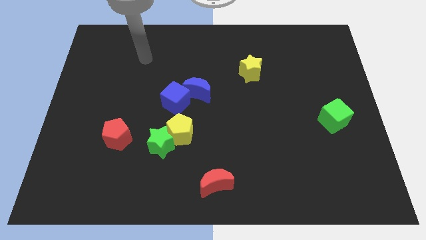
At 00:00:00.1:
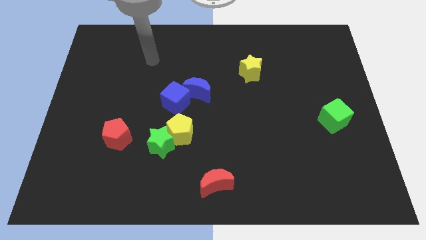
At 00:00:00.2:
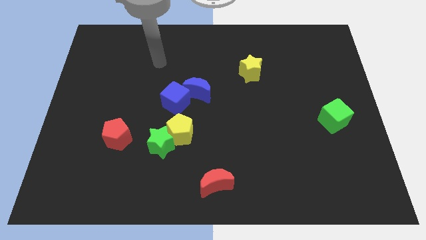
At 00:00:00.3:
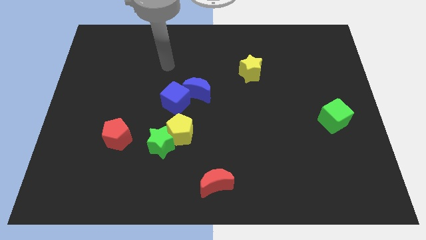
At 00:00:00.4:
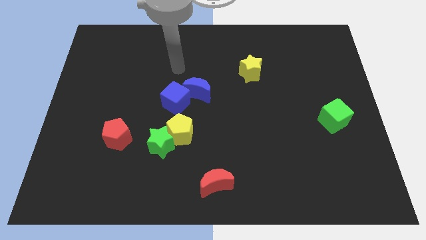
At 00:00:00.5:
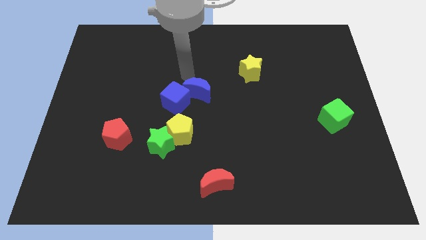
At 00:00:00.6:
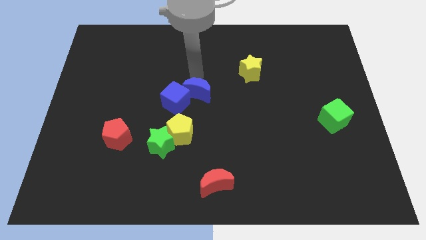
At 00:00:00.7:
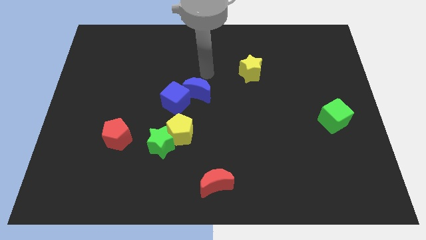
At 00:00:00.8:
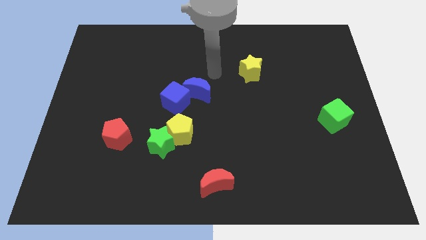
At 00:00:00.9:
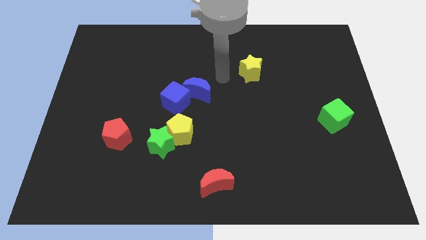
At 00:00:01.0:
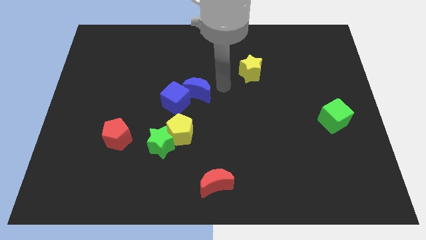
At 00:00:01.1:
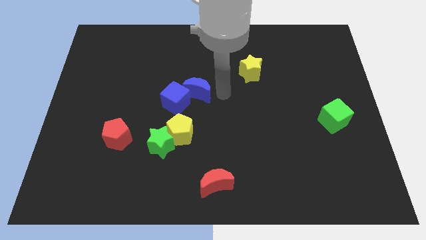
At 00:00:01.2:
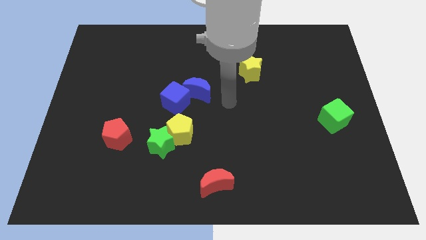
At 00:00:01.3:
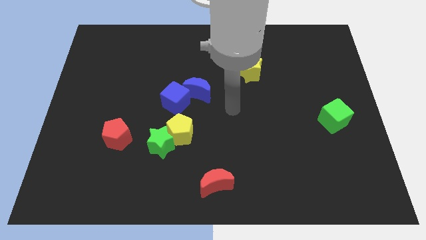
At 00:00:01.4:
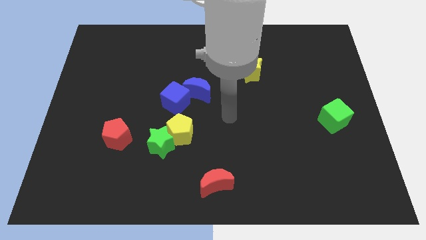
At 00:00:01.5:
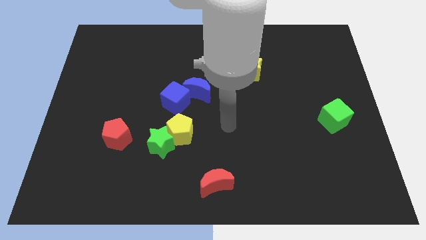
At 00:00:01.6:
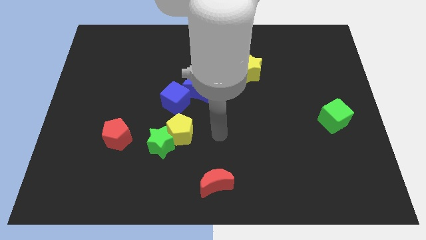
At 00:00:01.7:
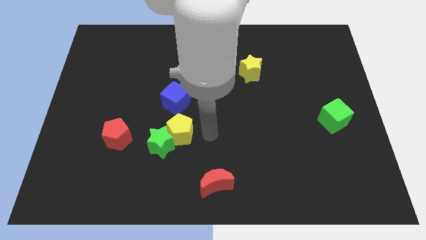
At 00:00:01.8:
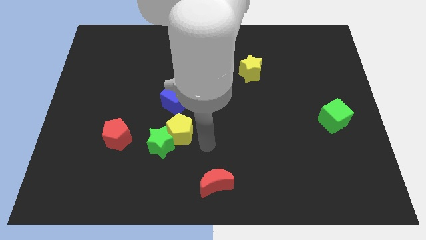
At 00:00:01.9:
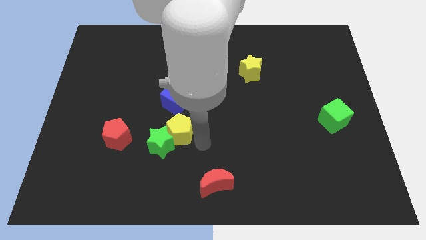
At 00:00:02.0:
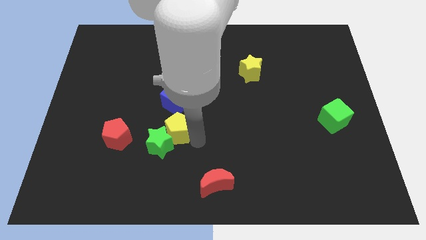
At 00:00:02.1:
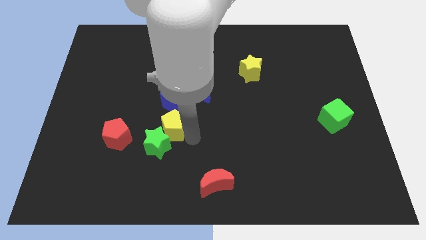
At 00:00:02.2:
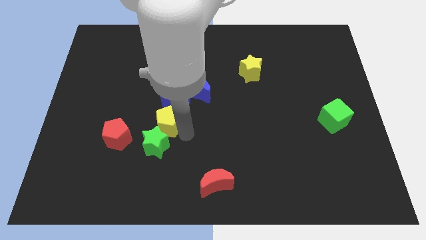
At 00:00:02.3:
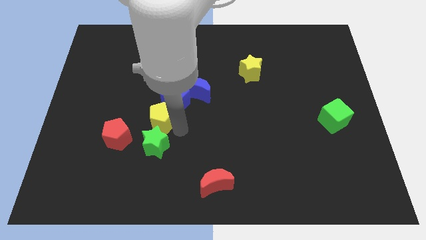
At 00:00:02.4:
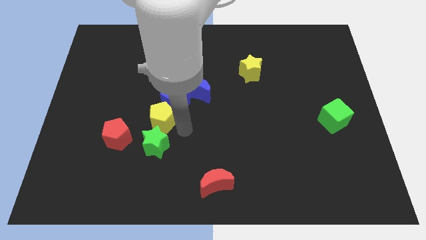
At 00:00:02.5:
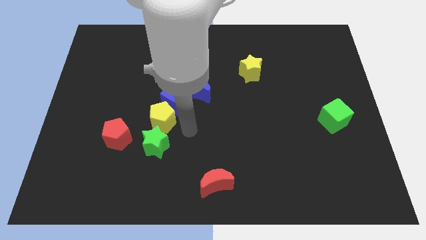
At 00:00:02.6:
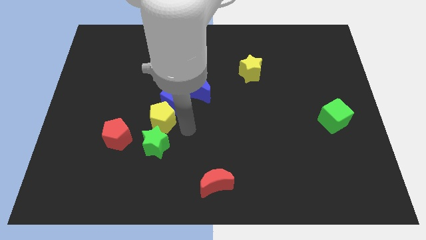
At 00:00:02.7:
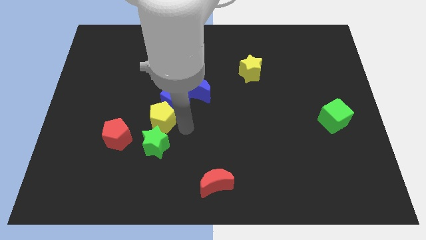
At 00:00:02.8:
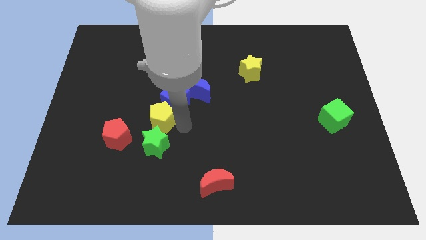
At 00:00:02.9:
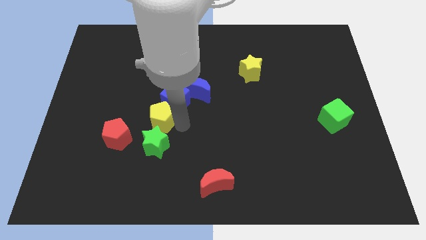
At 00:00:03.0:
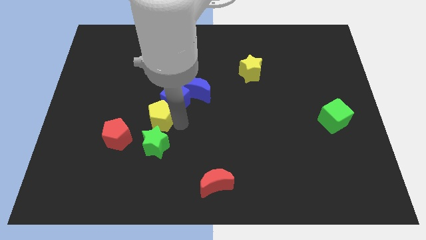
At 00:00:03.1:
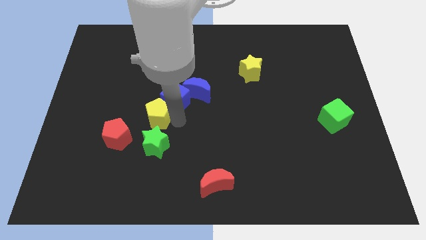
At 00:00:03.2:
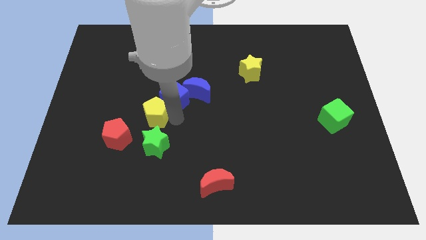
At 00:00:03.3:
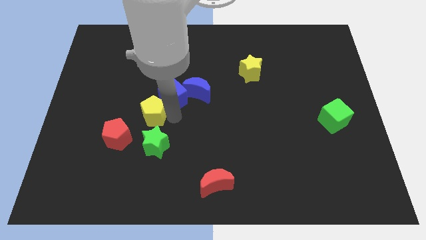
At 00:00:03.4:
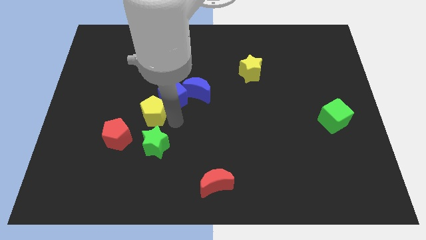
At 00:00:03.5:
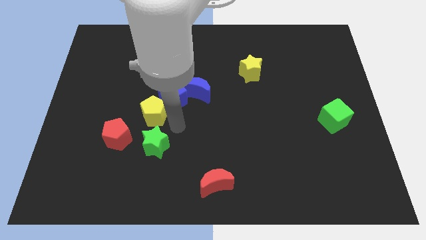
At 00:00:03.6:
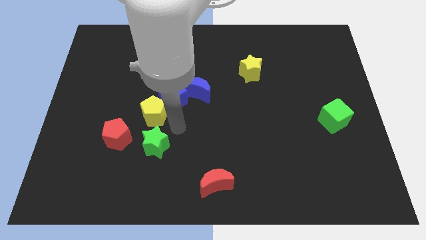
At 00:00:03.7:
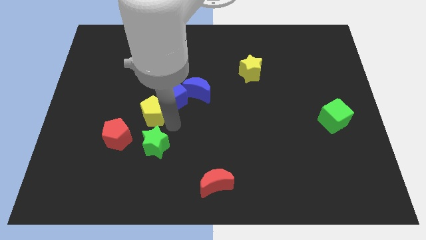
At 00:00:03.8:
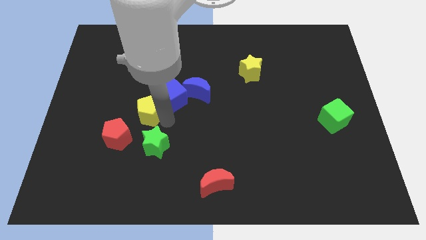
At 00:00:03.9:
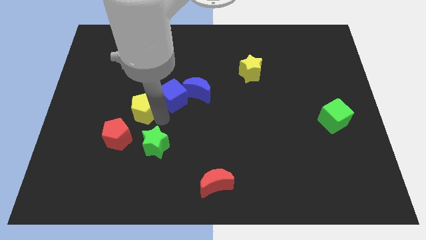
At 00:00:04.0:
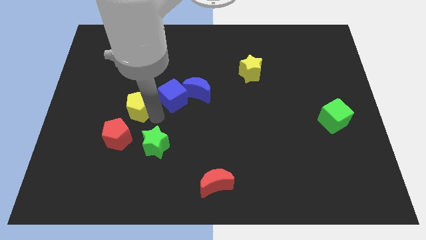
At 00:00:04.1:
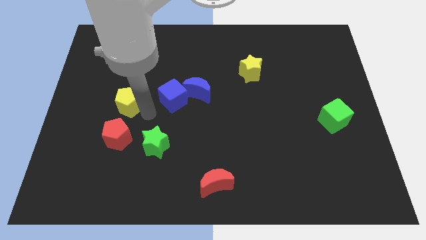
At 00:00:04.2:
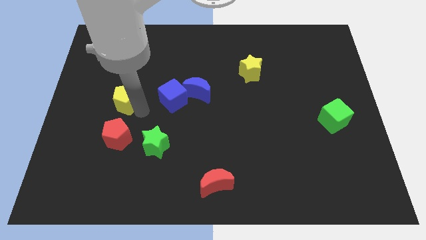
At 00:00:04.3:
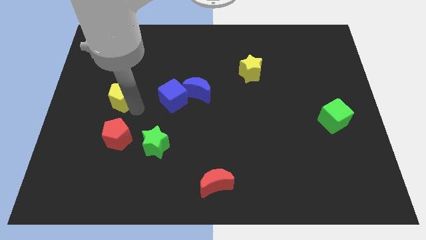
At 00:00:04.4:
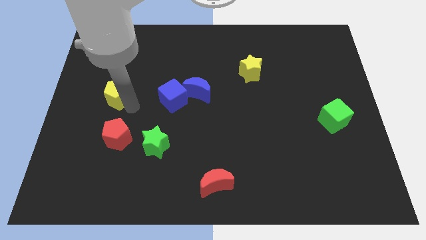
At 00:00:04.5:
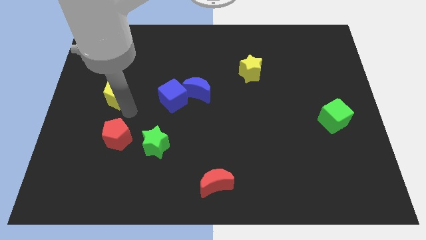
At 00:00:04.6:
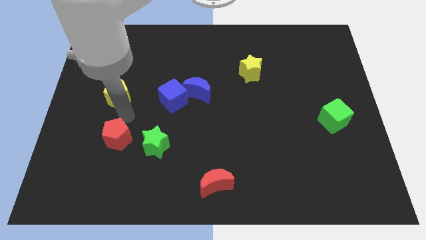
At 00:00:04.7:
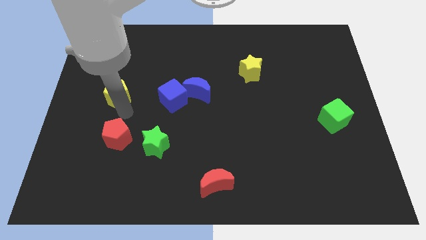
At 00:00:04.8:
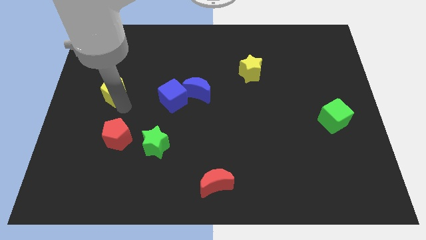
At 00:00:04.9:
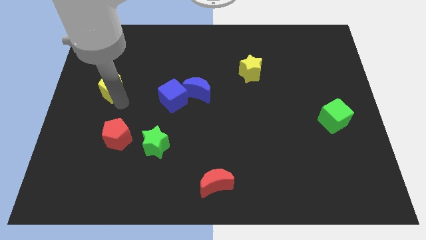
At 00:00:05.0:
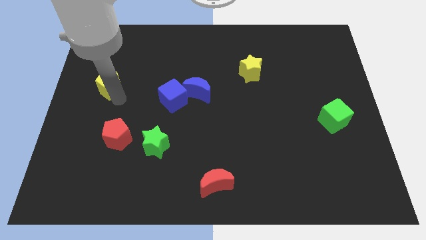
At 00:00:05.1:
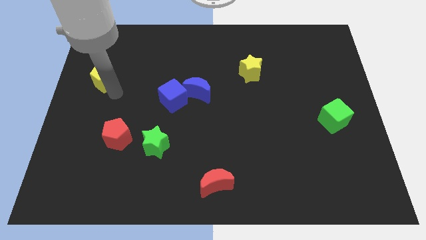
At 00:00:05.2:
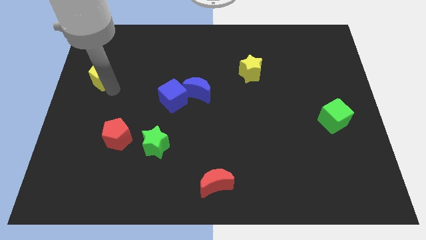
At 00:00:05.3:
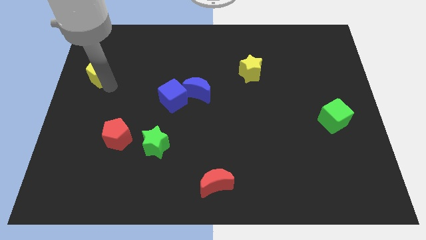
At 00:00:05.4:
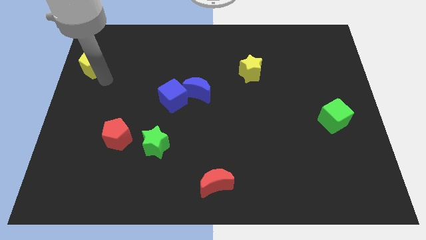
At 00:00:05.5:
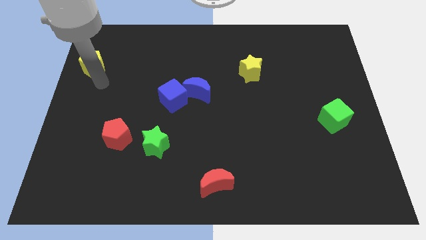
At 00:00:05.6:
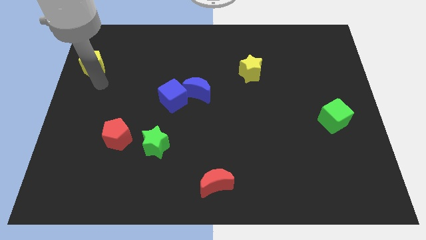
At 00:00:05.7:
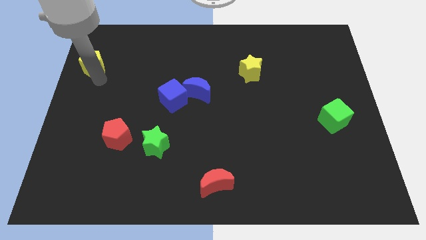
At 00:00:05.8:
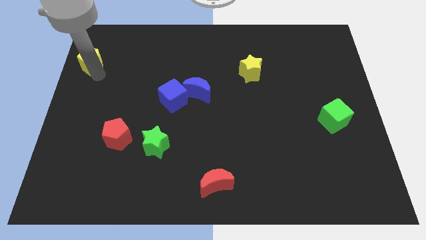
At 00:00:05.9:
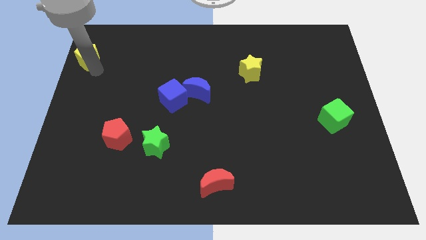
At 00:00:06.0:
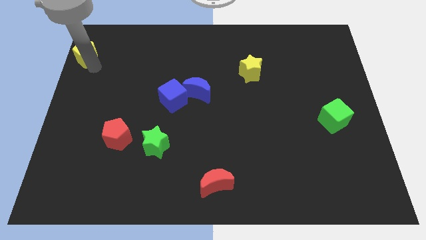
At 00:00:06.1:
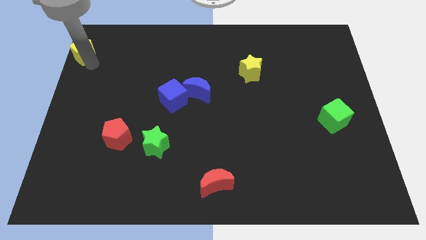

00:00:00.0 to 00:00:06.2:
slide the yellow pentagon to the top left corner

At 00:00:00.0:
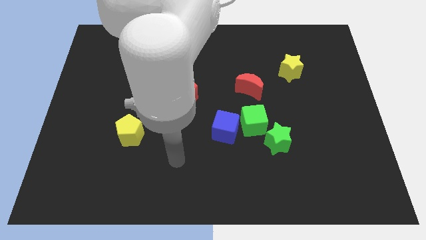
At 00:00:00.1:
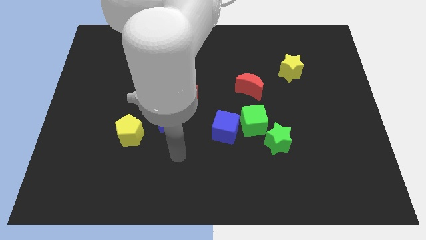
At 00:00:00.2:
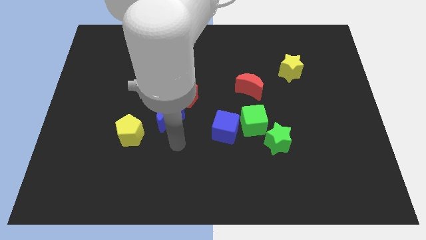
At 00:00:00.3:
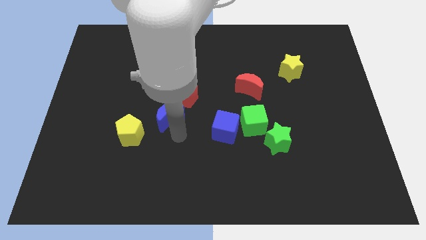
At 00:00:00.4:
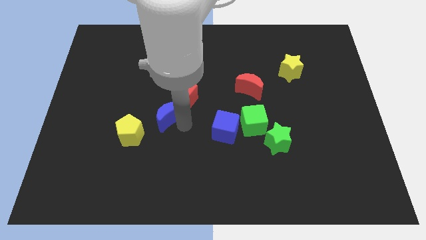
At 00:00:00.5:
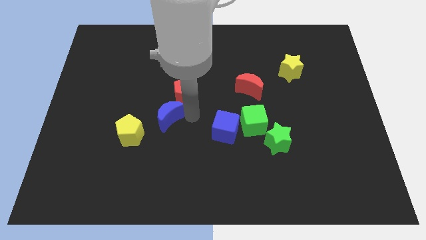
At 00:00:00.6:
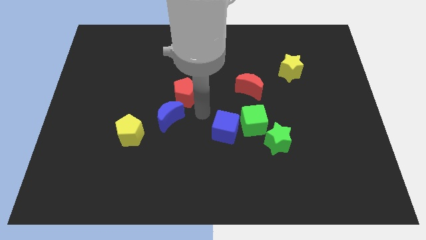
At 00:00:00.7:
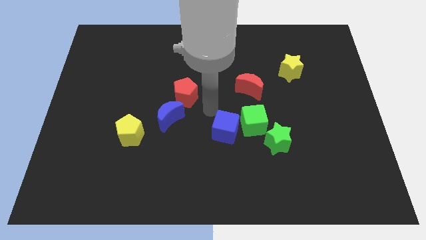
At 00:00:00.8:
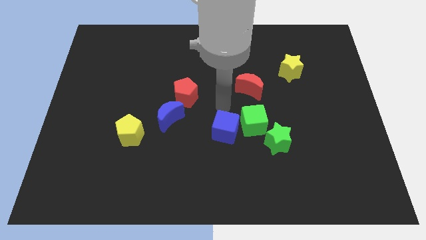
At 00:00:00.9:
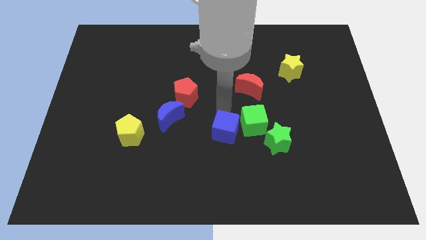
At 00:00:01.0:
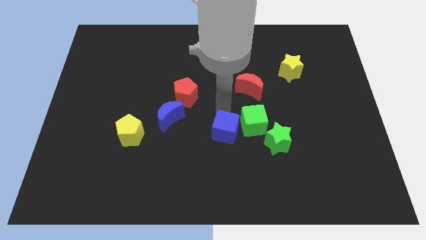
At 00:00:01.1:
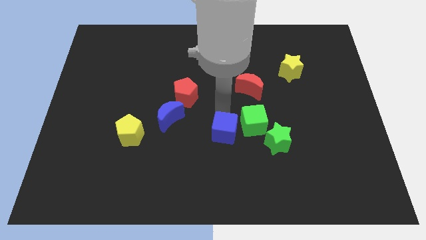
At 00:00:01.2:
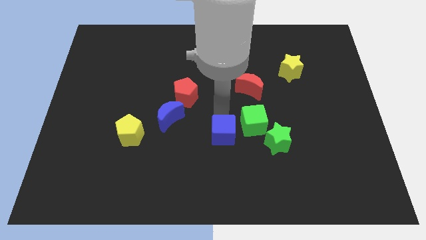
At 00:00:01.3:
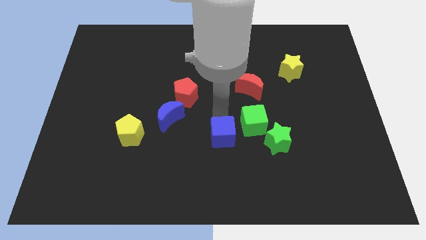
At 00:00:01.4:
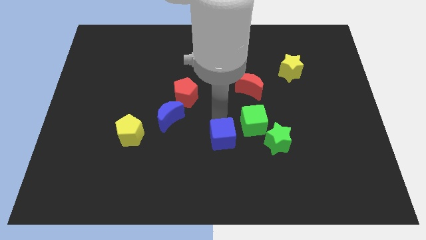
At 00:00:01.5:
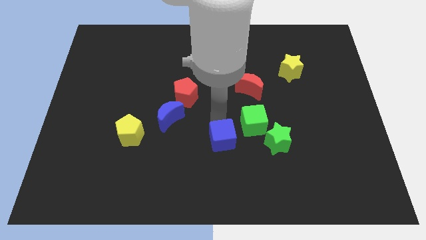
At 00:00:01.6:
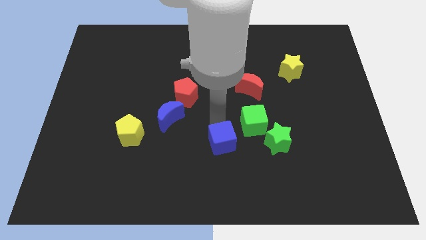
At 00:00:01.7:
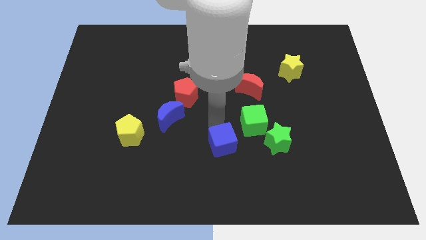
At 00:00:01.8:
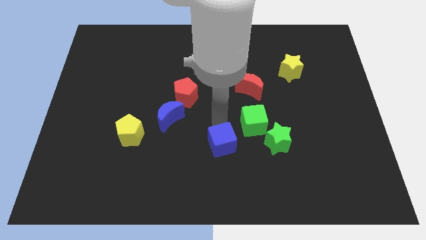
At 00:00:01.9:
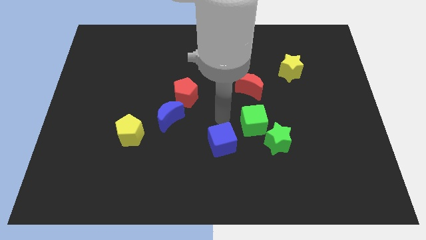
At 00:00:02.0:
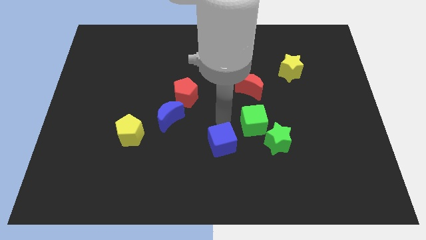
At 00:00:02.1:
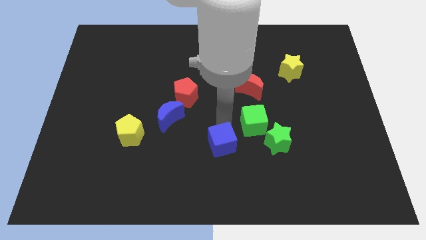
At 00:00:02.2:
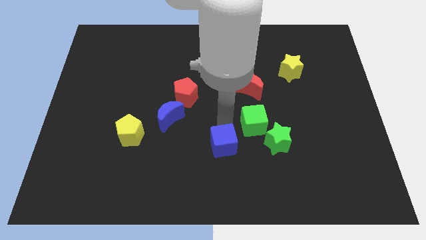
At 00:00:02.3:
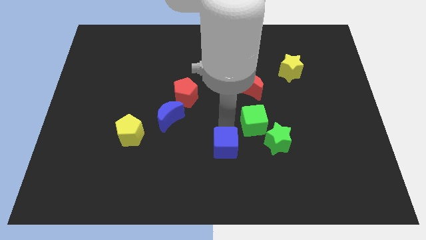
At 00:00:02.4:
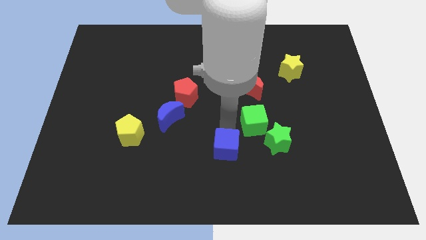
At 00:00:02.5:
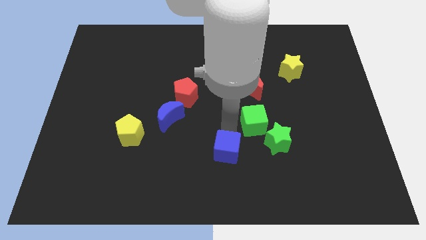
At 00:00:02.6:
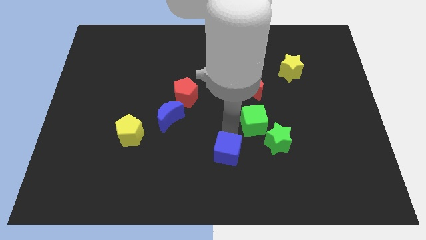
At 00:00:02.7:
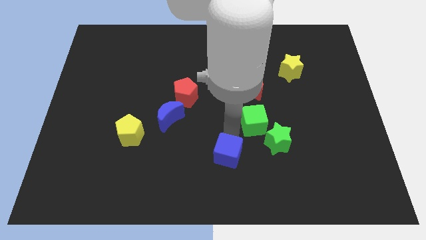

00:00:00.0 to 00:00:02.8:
move the blue cube to the bottom
